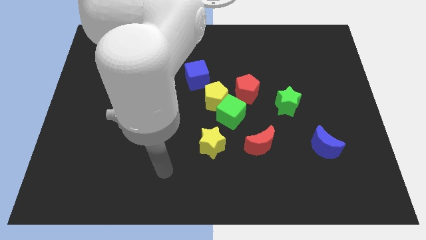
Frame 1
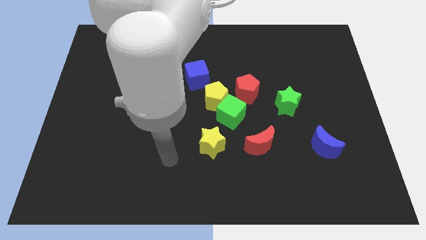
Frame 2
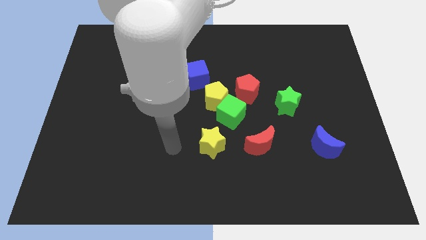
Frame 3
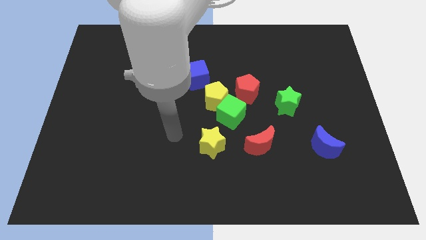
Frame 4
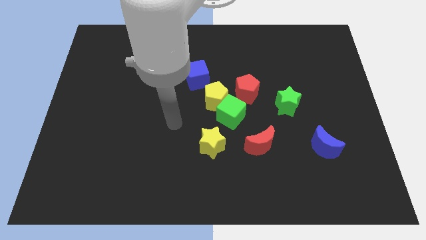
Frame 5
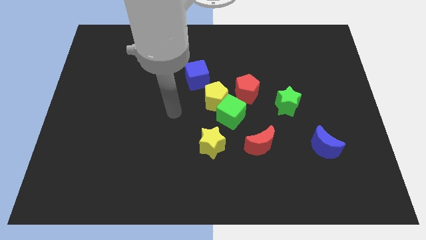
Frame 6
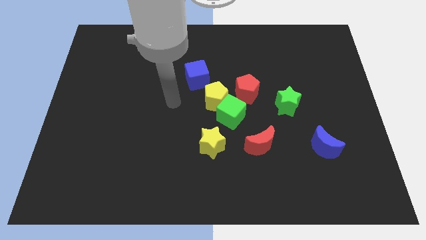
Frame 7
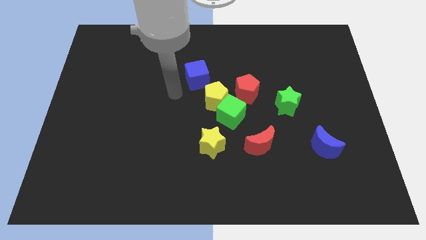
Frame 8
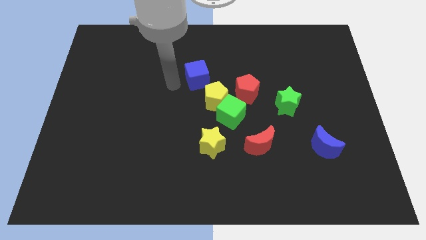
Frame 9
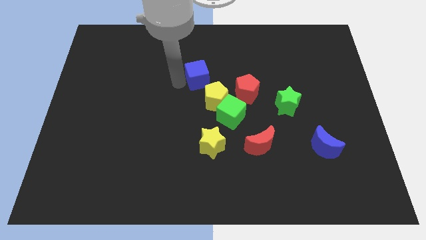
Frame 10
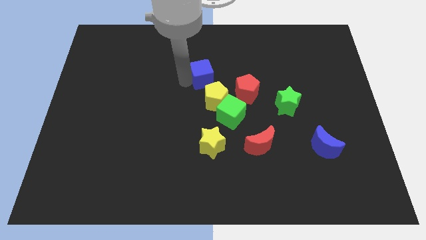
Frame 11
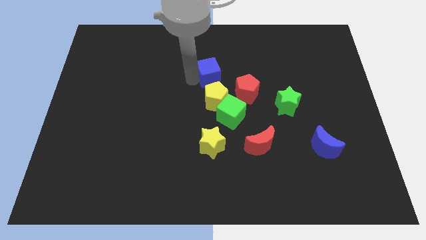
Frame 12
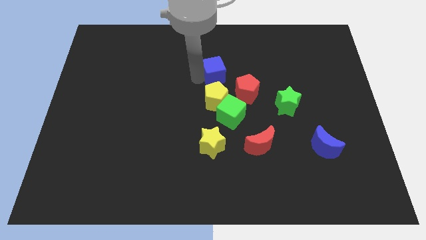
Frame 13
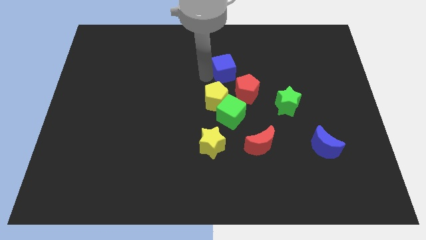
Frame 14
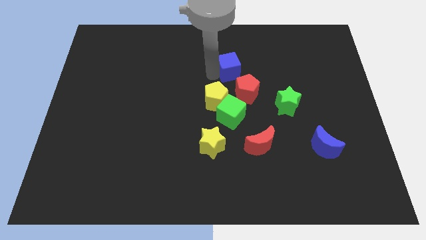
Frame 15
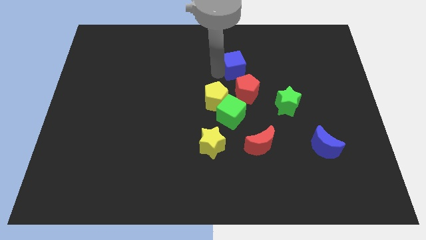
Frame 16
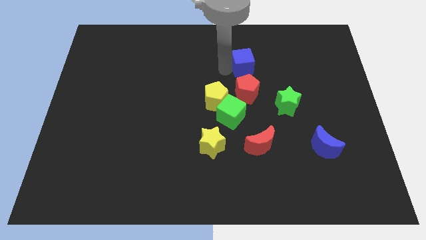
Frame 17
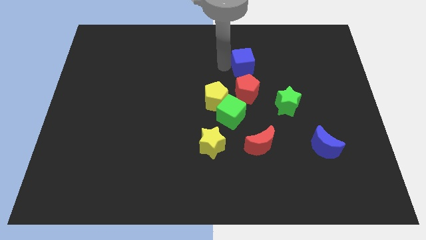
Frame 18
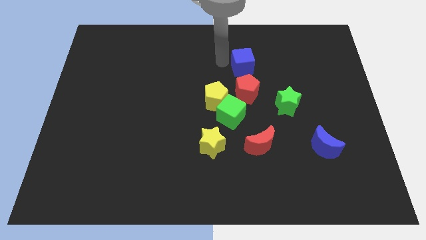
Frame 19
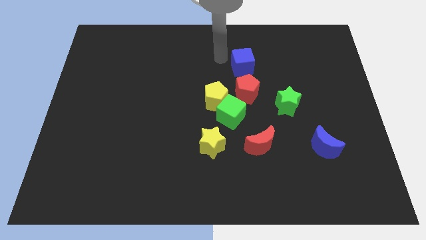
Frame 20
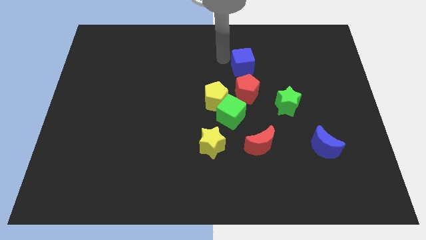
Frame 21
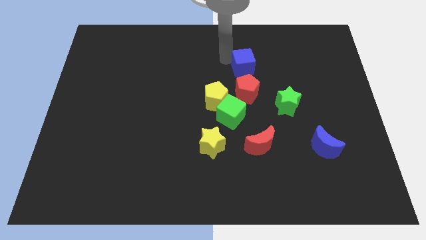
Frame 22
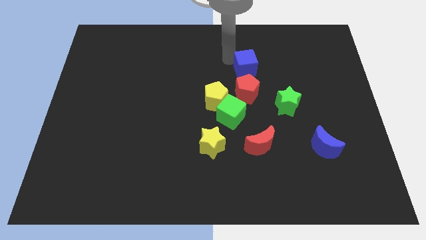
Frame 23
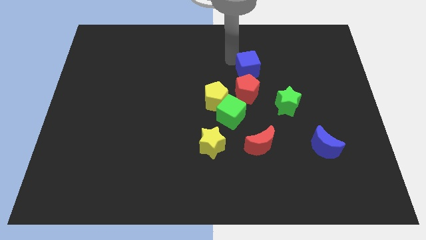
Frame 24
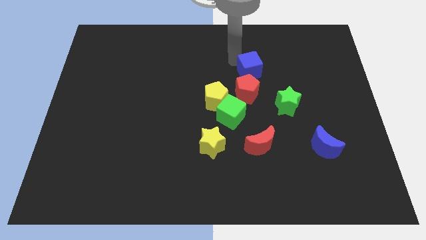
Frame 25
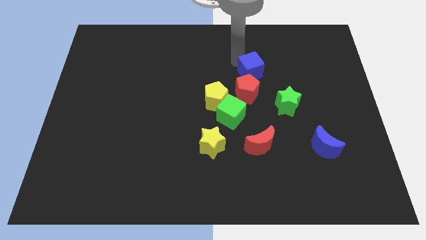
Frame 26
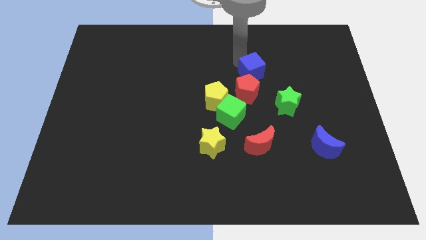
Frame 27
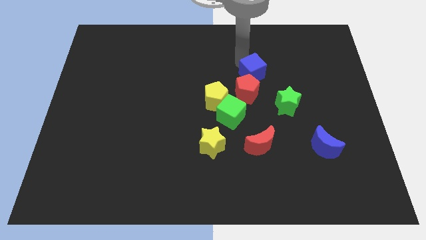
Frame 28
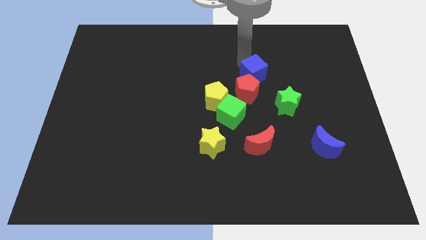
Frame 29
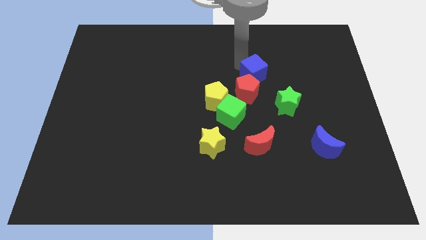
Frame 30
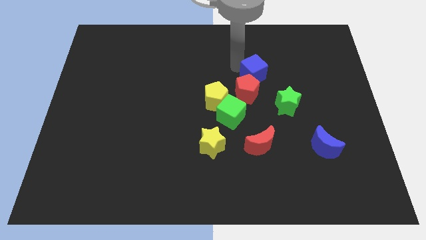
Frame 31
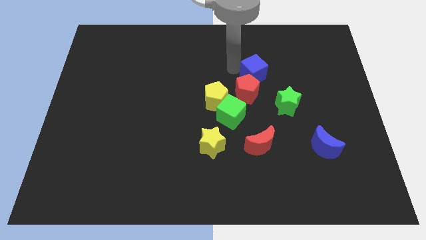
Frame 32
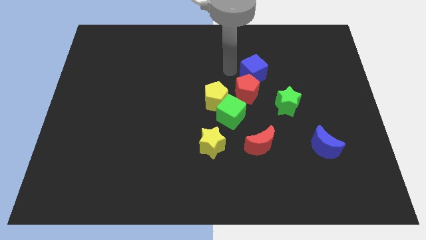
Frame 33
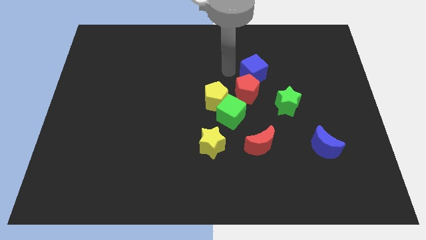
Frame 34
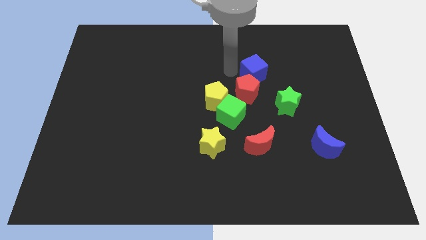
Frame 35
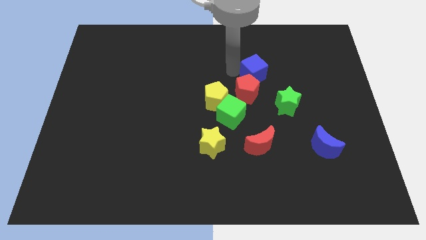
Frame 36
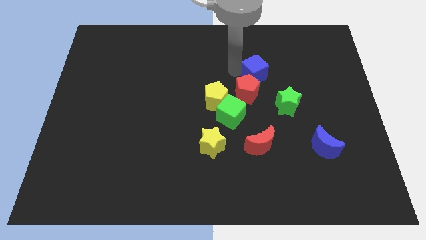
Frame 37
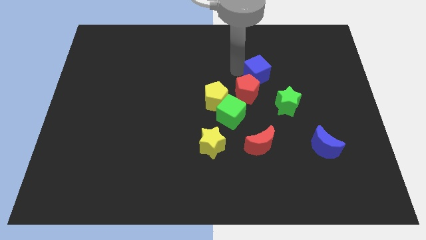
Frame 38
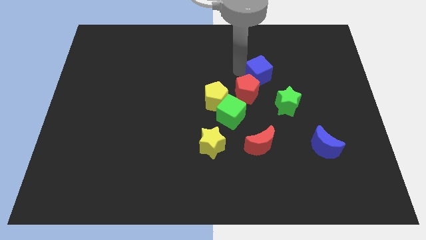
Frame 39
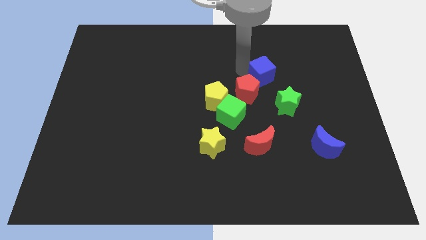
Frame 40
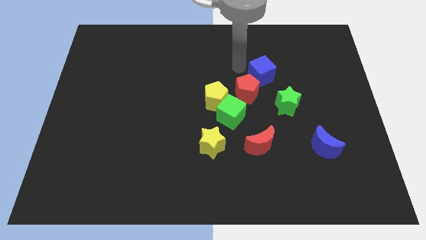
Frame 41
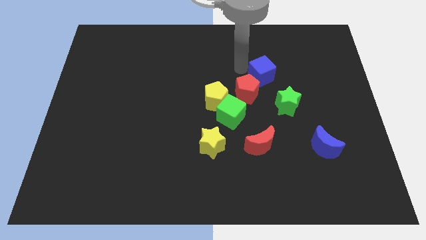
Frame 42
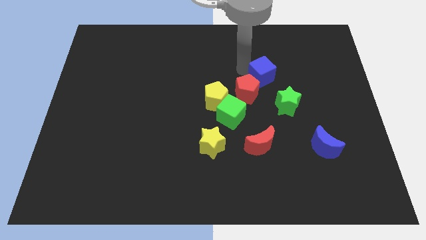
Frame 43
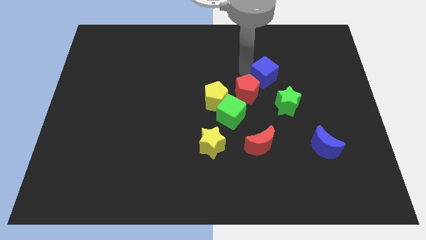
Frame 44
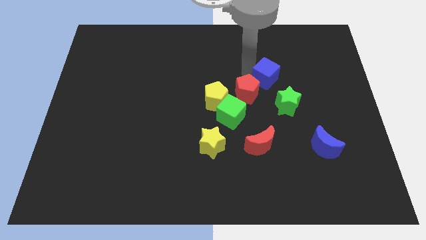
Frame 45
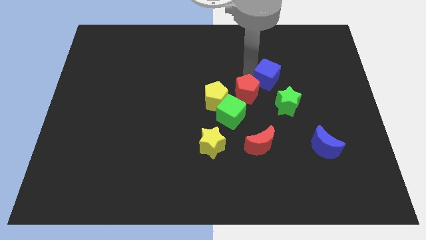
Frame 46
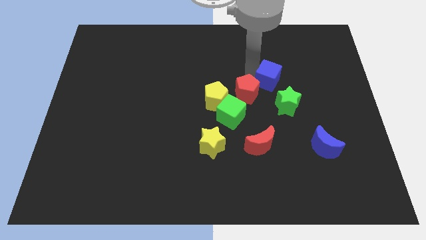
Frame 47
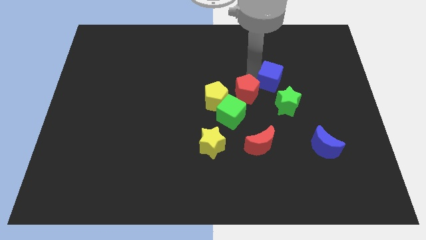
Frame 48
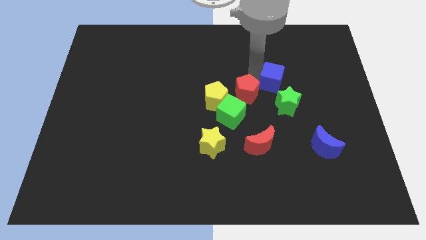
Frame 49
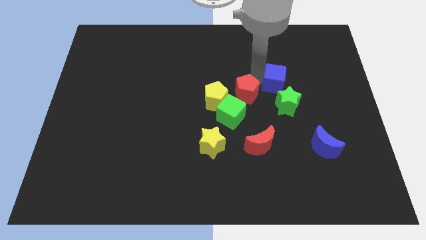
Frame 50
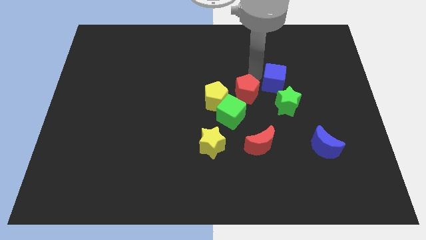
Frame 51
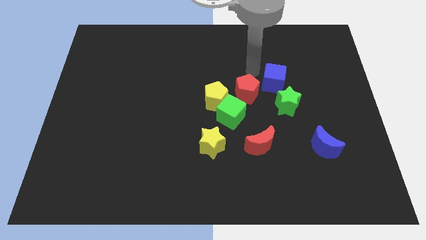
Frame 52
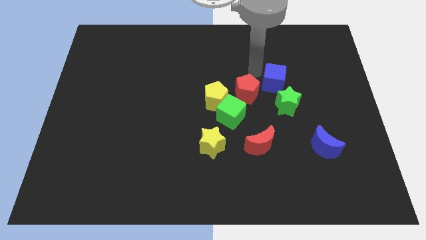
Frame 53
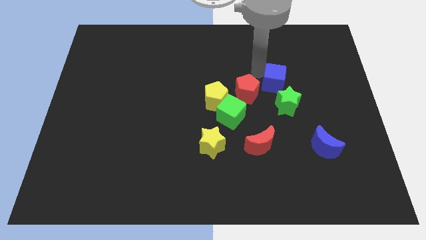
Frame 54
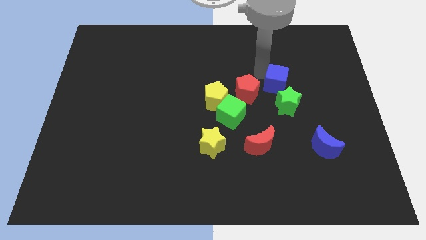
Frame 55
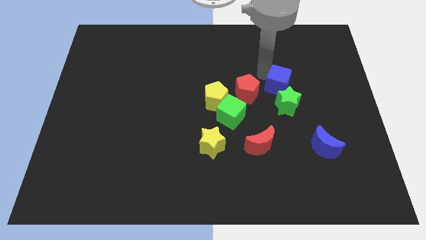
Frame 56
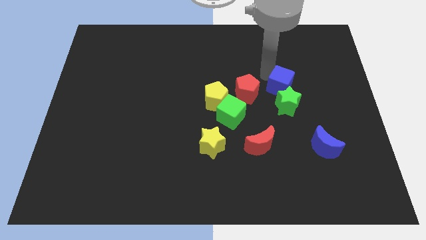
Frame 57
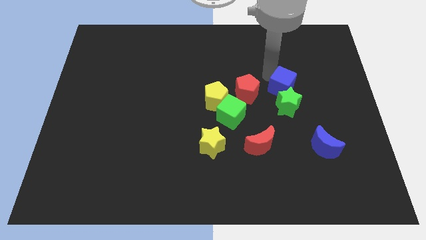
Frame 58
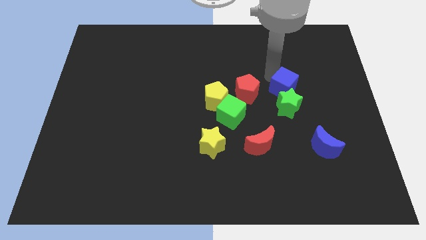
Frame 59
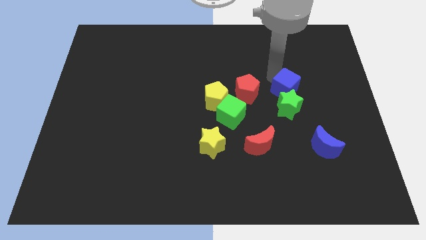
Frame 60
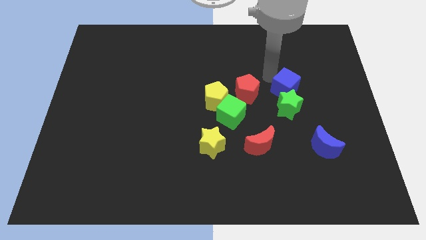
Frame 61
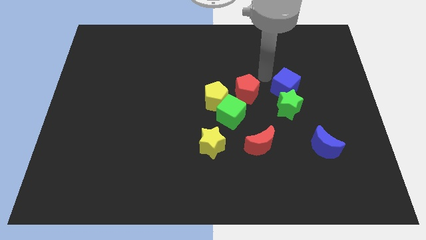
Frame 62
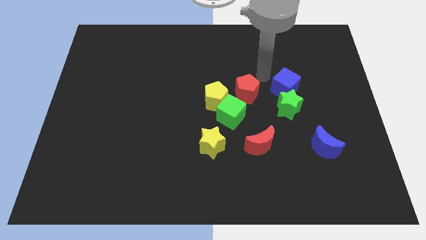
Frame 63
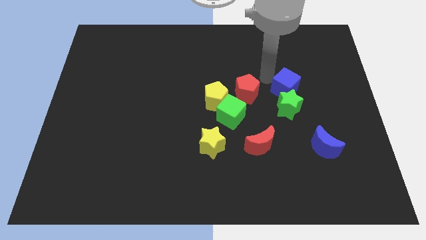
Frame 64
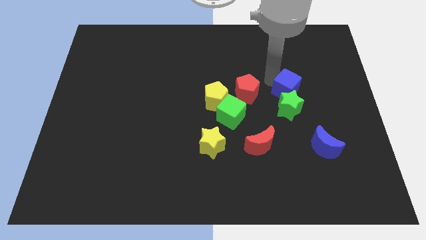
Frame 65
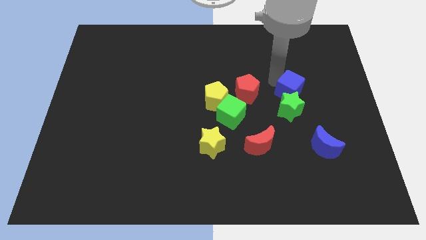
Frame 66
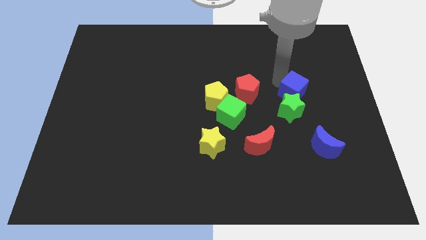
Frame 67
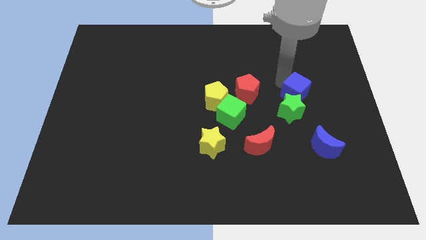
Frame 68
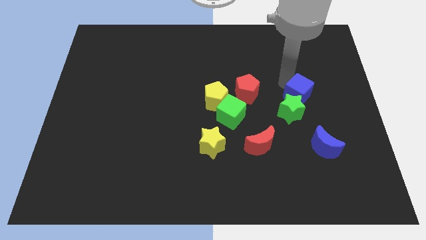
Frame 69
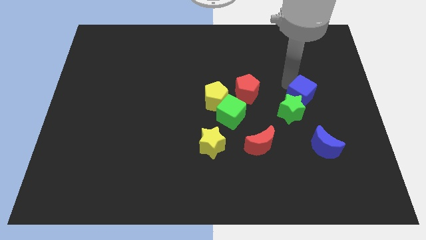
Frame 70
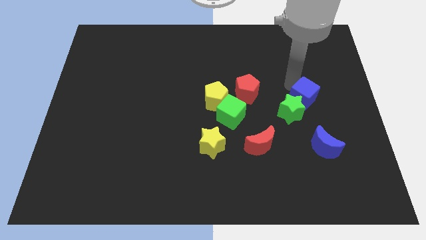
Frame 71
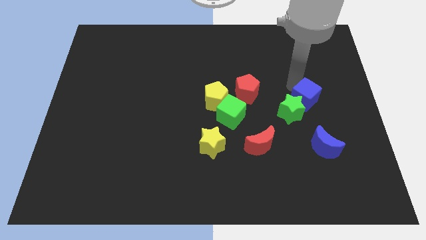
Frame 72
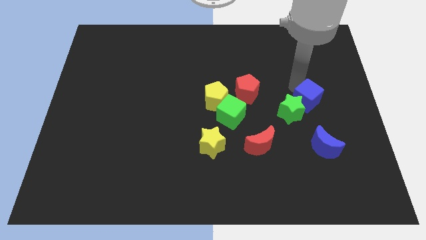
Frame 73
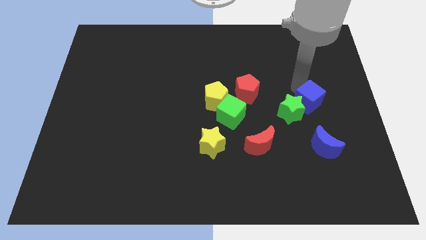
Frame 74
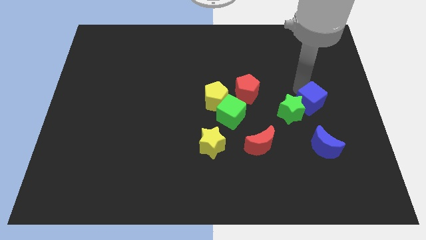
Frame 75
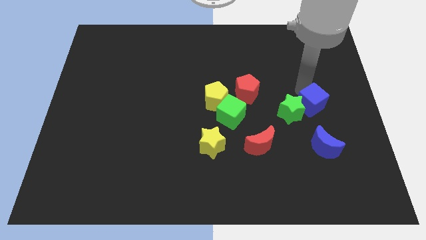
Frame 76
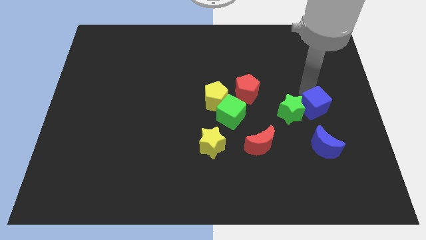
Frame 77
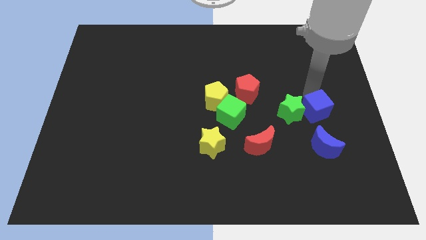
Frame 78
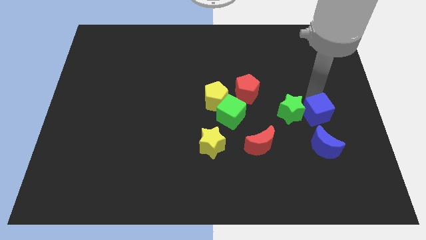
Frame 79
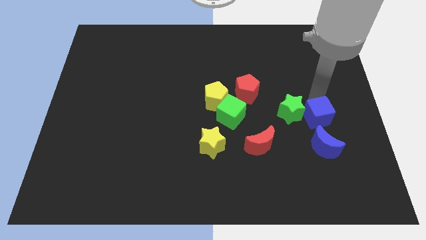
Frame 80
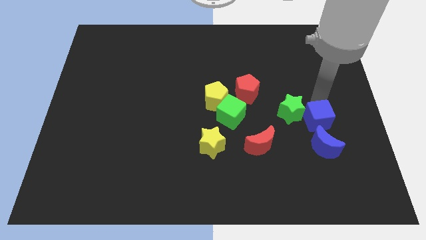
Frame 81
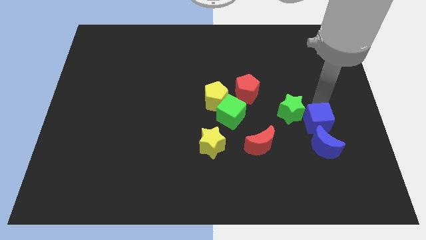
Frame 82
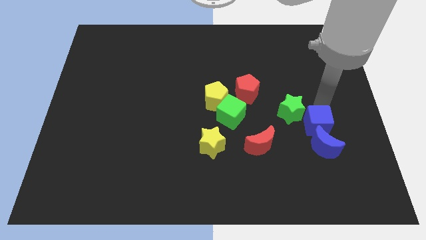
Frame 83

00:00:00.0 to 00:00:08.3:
put the blue cube next to the blue moon
